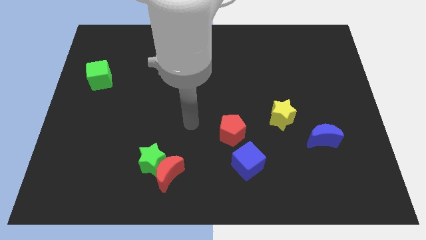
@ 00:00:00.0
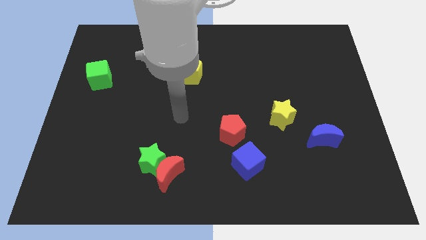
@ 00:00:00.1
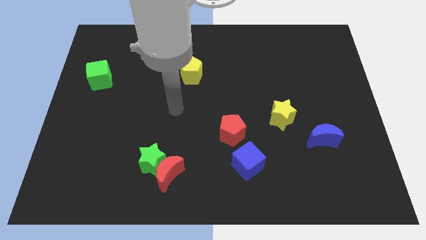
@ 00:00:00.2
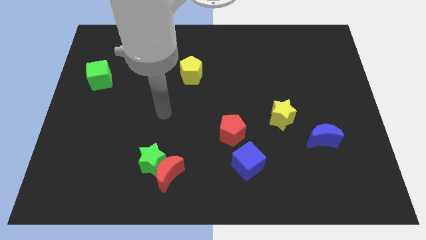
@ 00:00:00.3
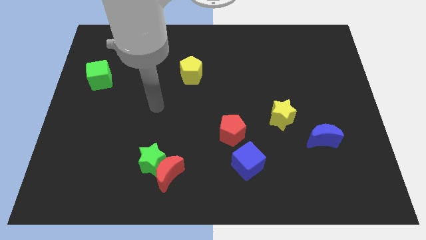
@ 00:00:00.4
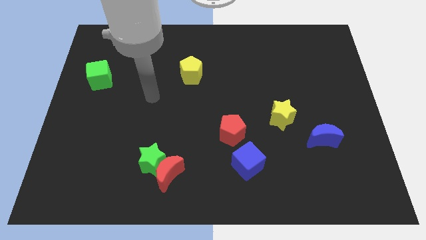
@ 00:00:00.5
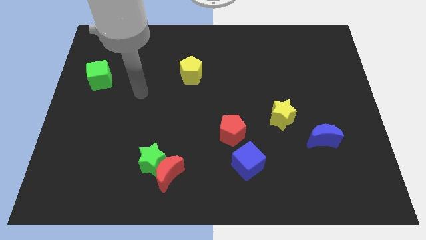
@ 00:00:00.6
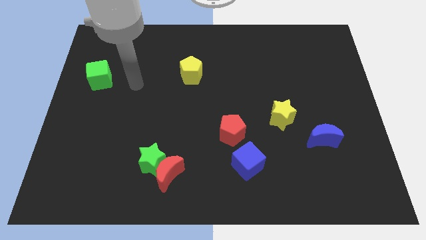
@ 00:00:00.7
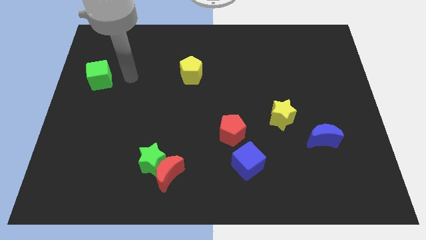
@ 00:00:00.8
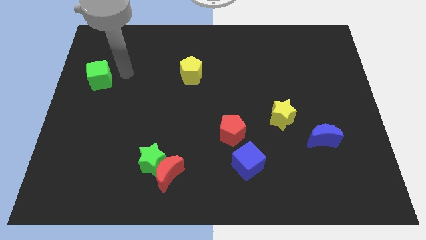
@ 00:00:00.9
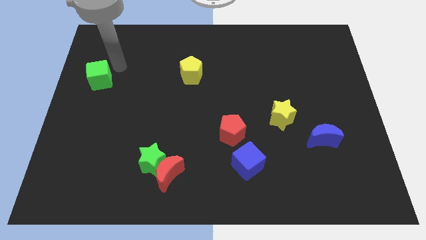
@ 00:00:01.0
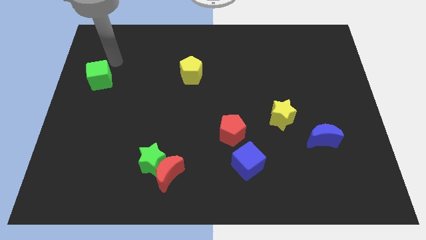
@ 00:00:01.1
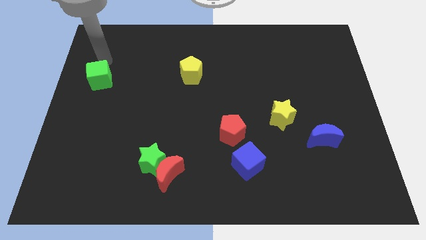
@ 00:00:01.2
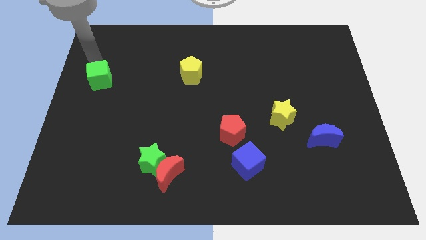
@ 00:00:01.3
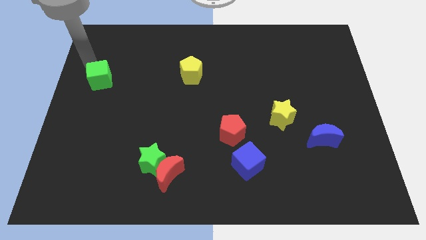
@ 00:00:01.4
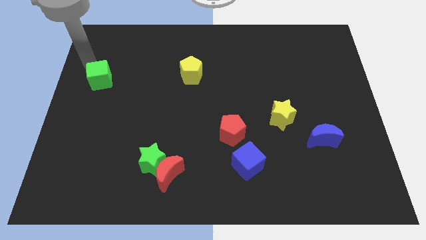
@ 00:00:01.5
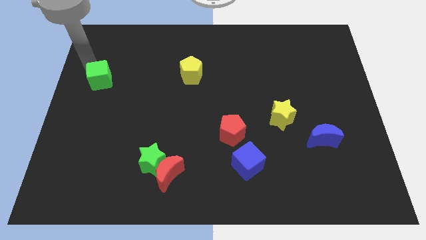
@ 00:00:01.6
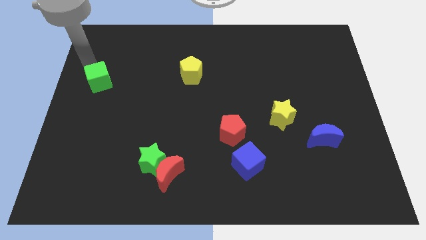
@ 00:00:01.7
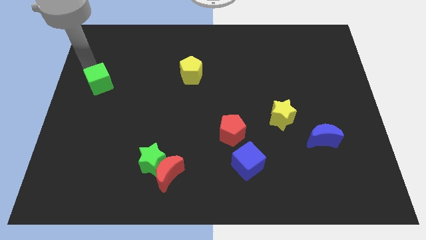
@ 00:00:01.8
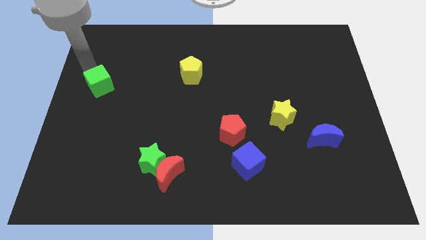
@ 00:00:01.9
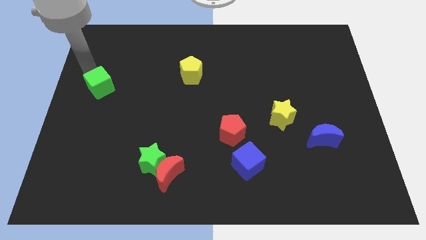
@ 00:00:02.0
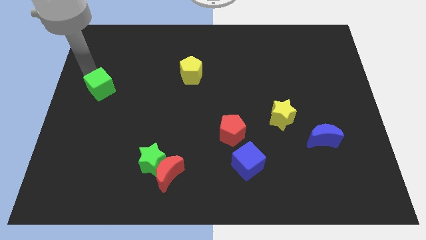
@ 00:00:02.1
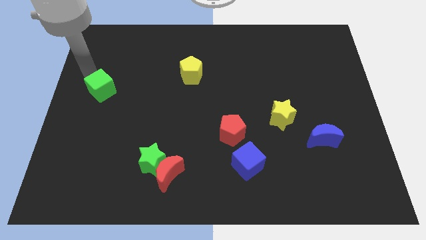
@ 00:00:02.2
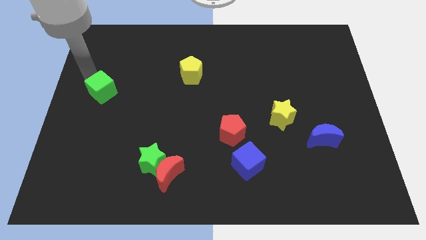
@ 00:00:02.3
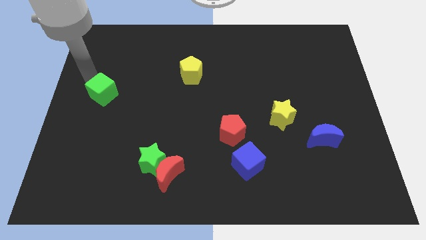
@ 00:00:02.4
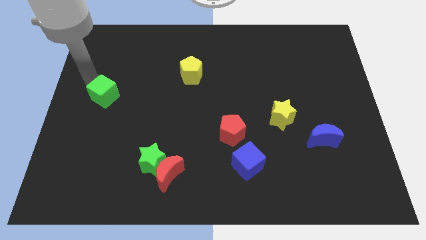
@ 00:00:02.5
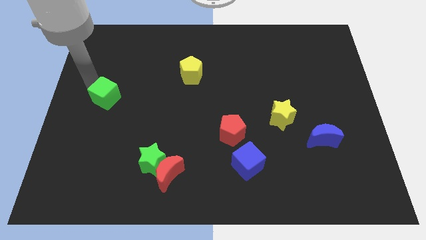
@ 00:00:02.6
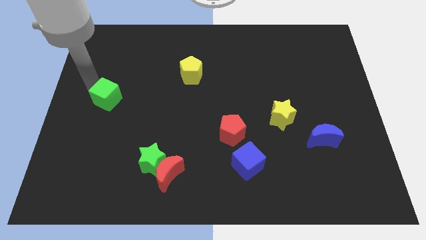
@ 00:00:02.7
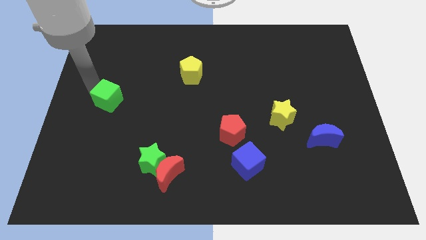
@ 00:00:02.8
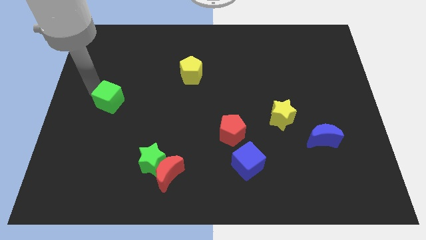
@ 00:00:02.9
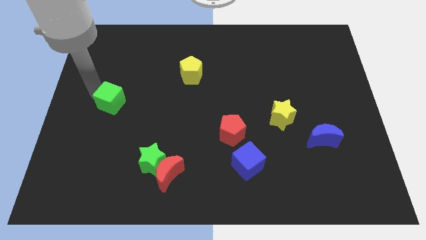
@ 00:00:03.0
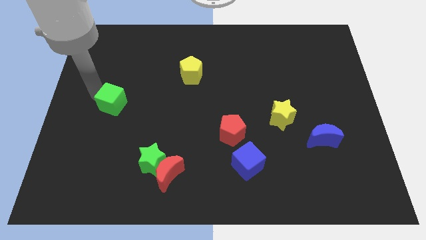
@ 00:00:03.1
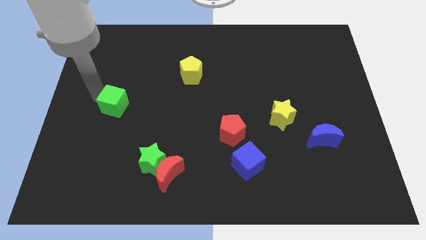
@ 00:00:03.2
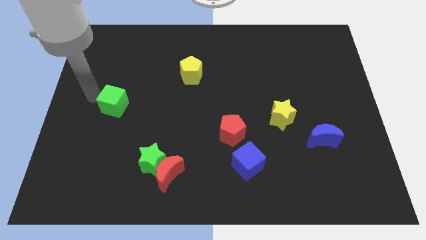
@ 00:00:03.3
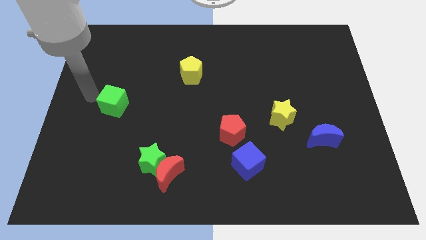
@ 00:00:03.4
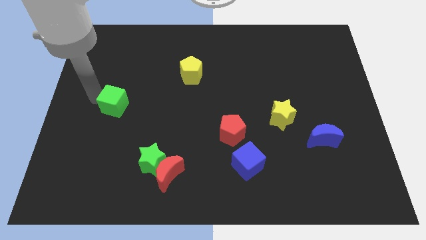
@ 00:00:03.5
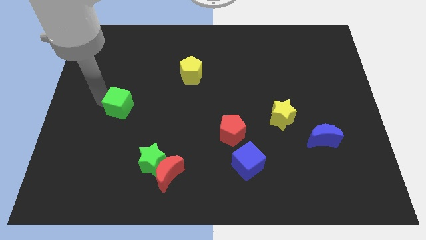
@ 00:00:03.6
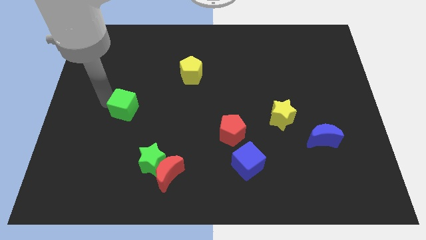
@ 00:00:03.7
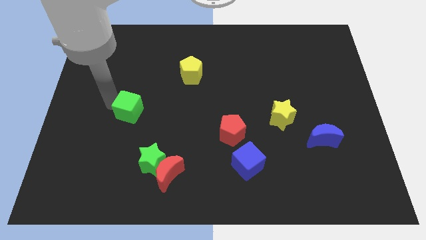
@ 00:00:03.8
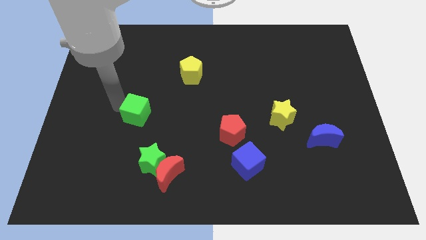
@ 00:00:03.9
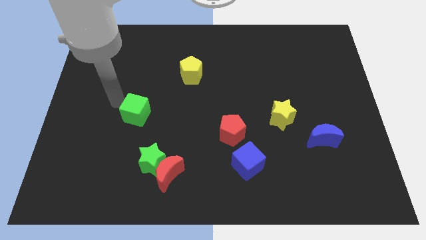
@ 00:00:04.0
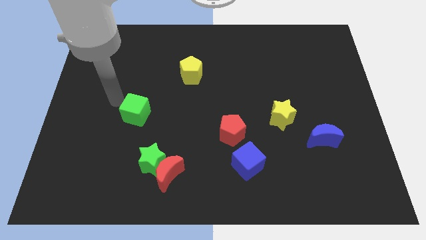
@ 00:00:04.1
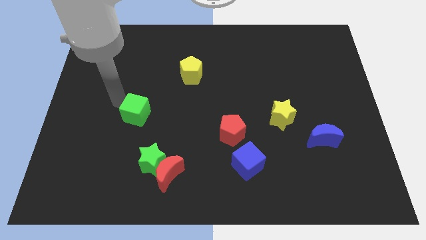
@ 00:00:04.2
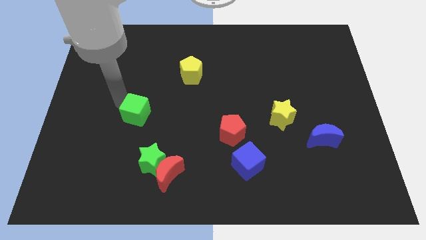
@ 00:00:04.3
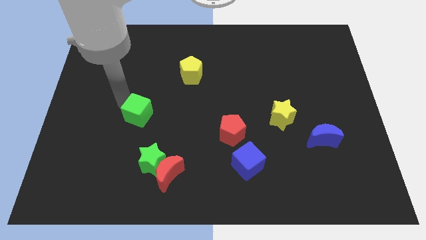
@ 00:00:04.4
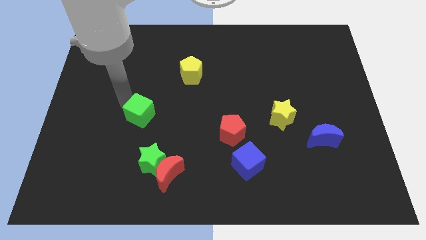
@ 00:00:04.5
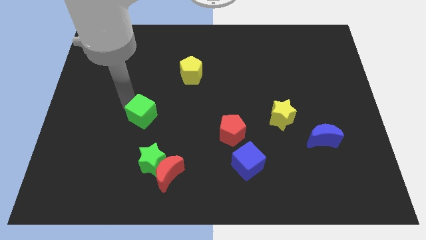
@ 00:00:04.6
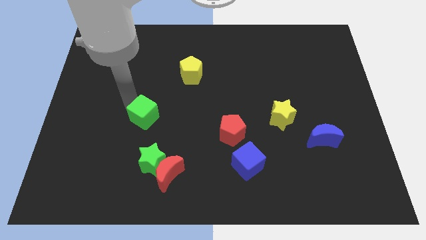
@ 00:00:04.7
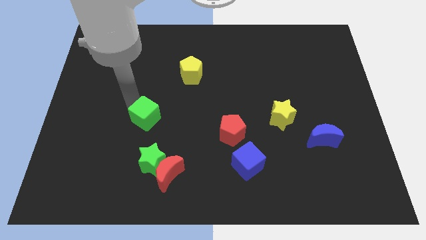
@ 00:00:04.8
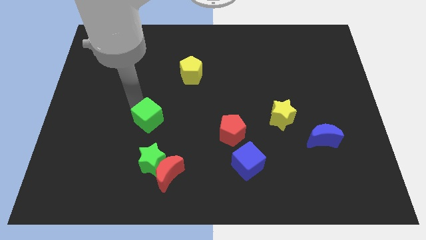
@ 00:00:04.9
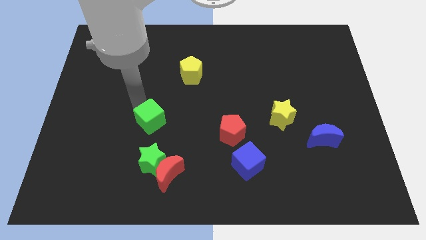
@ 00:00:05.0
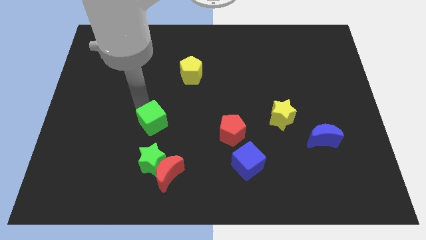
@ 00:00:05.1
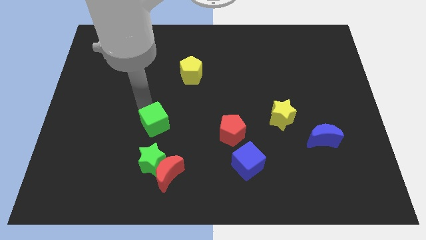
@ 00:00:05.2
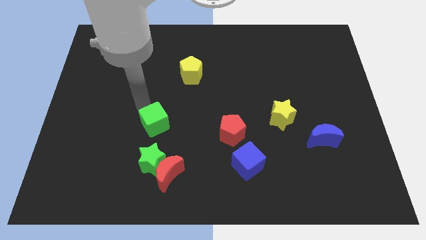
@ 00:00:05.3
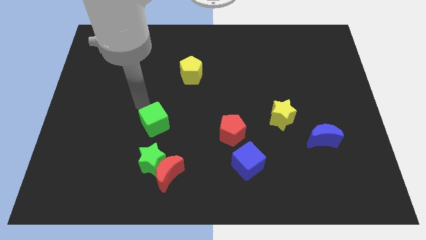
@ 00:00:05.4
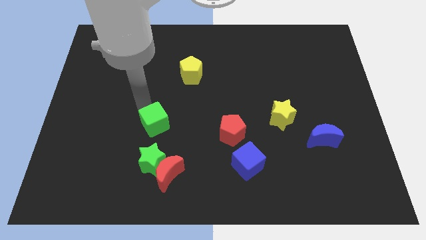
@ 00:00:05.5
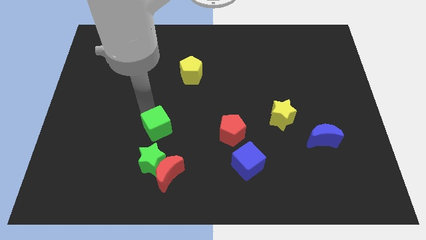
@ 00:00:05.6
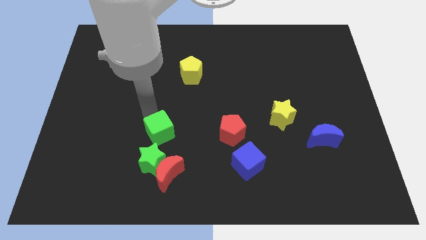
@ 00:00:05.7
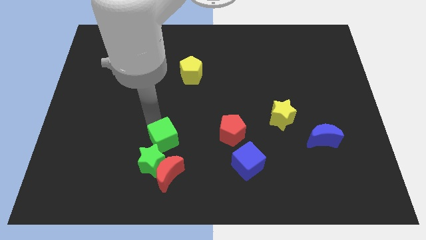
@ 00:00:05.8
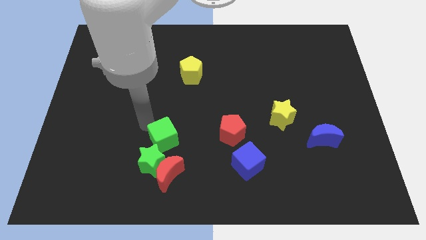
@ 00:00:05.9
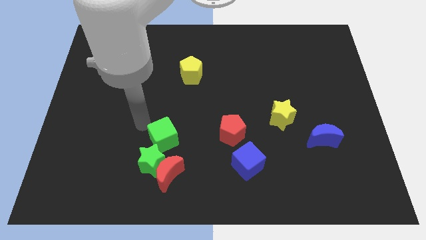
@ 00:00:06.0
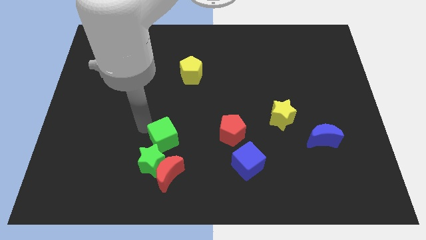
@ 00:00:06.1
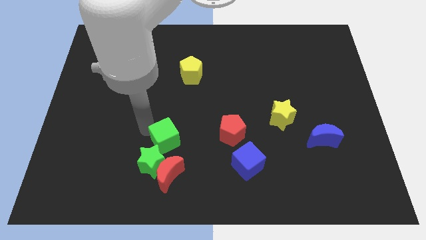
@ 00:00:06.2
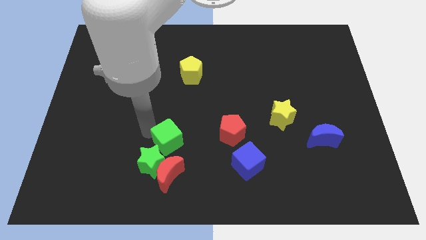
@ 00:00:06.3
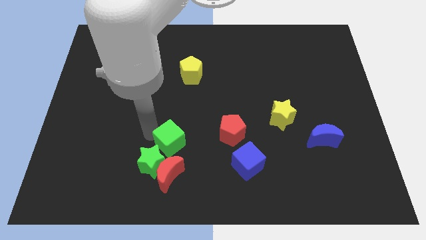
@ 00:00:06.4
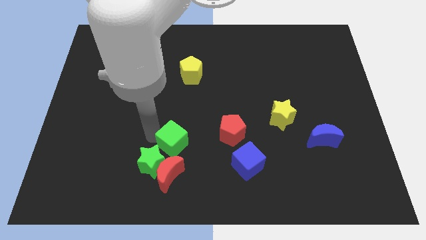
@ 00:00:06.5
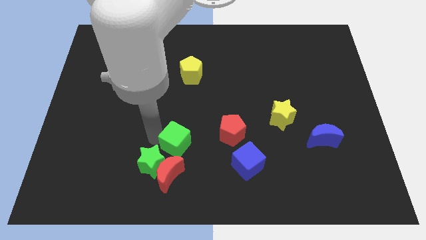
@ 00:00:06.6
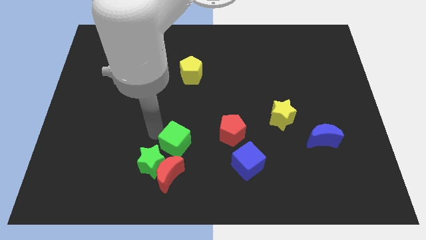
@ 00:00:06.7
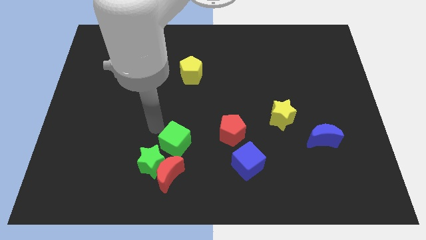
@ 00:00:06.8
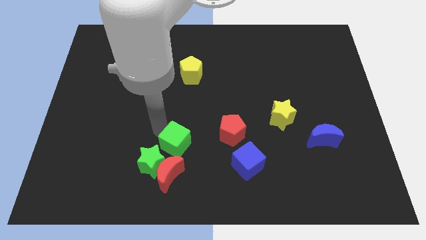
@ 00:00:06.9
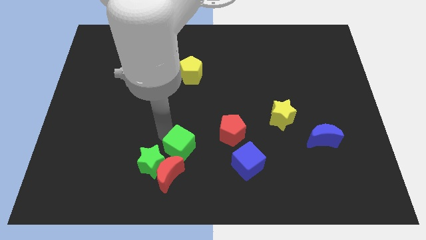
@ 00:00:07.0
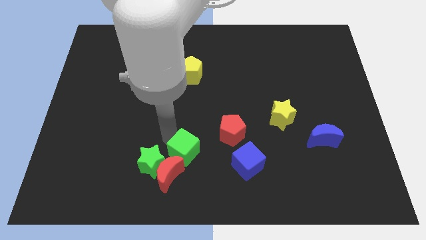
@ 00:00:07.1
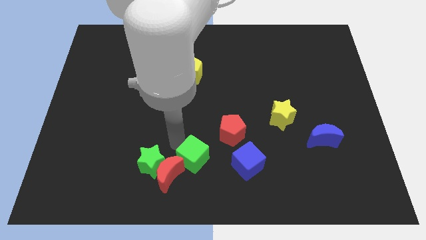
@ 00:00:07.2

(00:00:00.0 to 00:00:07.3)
push the green cube to the bottom
